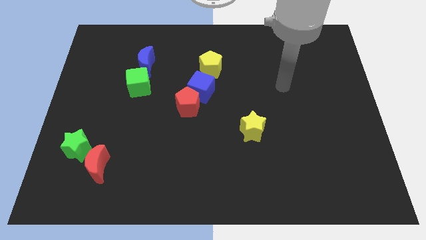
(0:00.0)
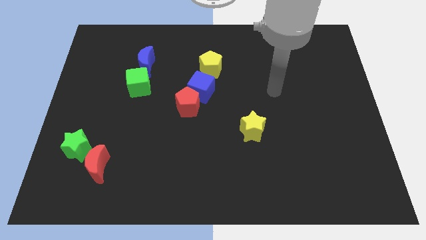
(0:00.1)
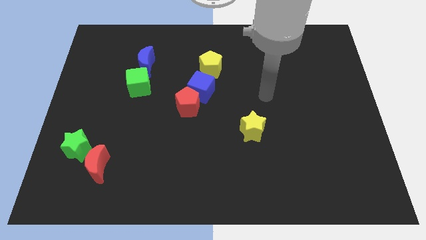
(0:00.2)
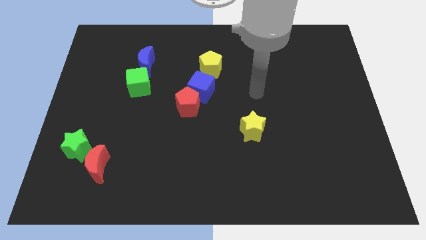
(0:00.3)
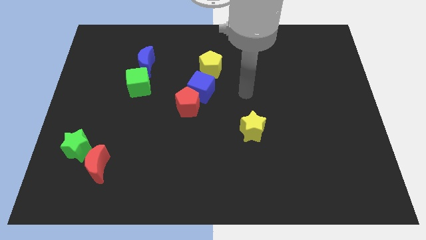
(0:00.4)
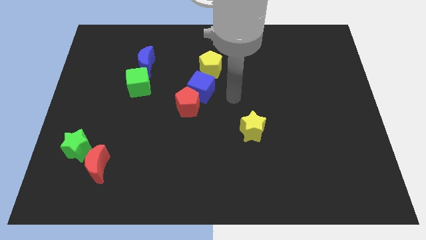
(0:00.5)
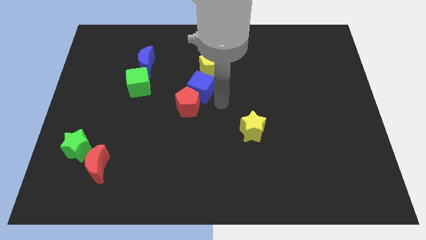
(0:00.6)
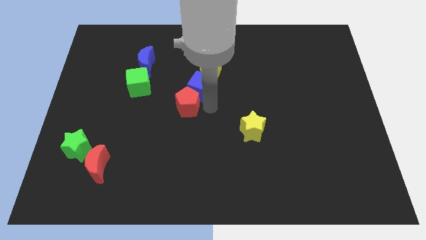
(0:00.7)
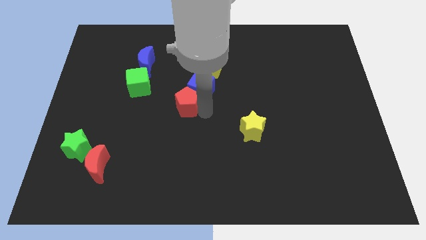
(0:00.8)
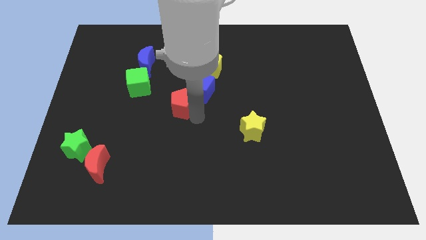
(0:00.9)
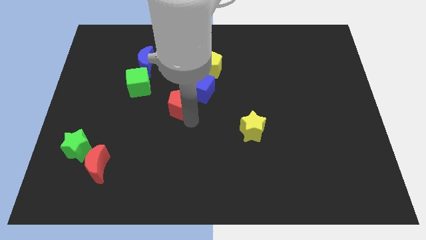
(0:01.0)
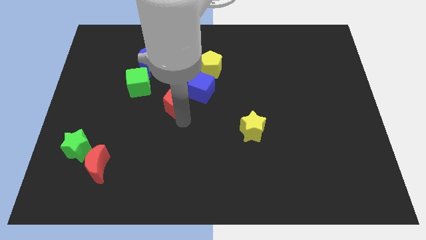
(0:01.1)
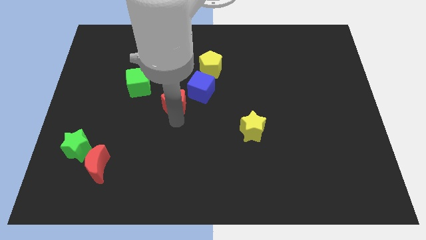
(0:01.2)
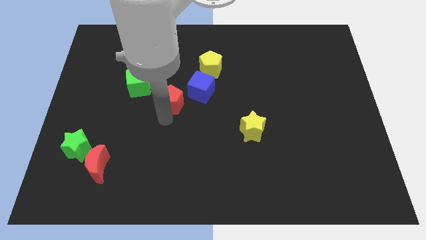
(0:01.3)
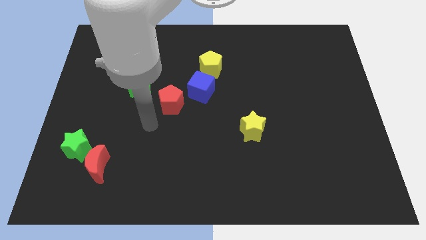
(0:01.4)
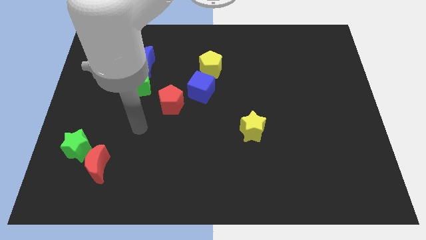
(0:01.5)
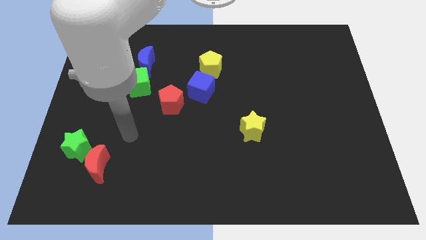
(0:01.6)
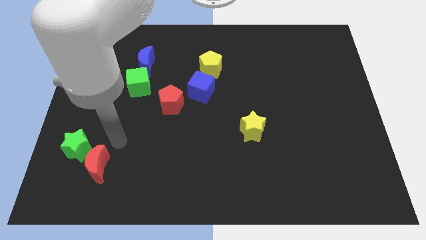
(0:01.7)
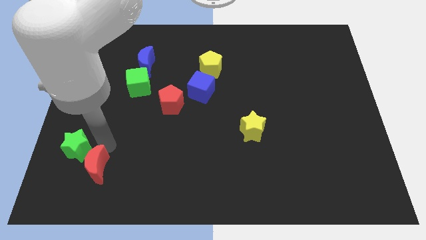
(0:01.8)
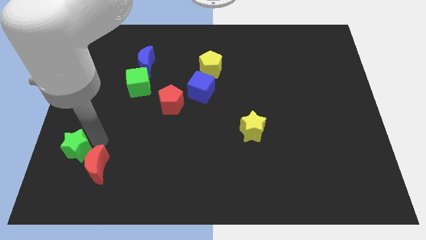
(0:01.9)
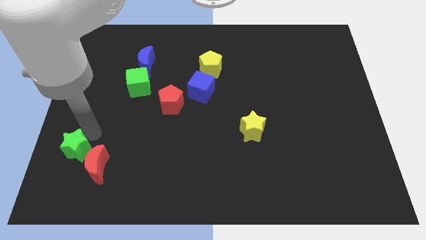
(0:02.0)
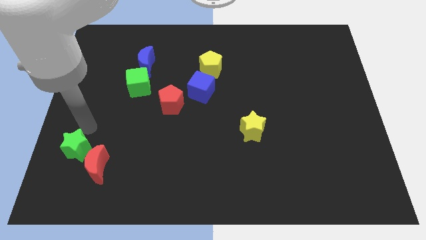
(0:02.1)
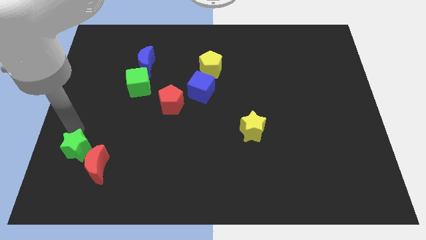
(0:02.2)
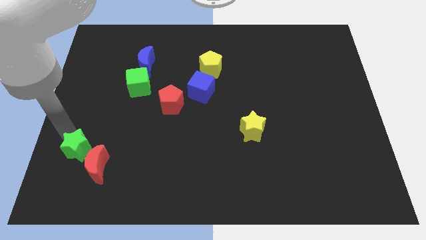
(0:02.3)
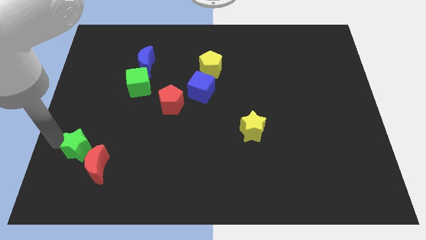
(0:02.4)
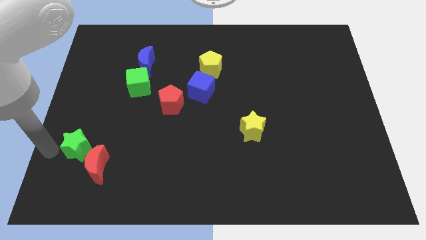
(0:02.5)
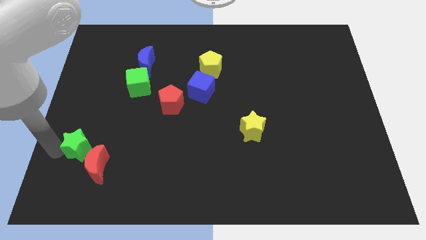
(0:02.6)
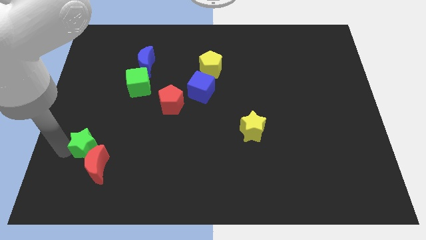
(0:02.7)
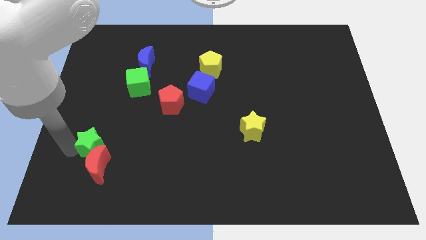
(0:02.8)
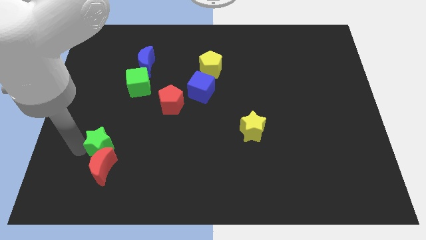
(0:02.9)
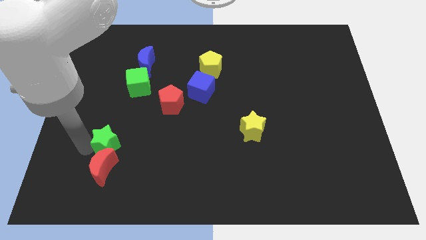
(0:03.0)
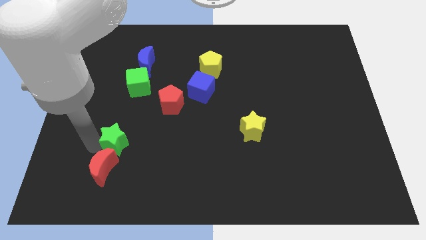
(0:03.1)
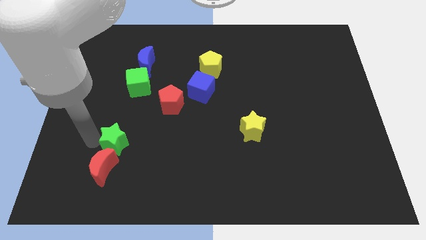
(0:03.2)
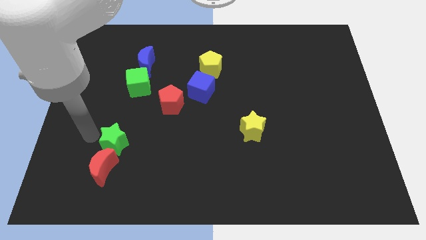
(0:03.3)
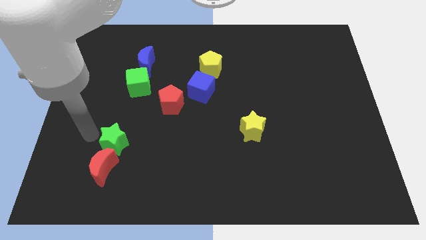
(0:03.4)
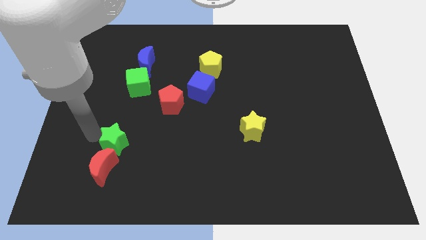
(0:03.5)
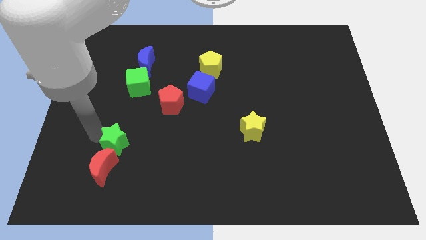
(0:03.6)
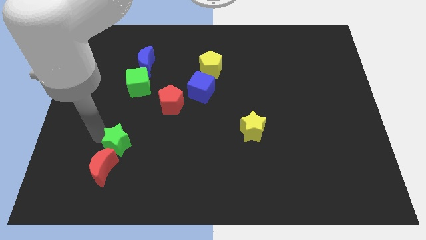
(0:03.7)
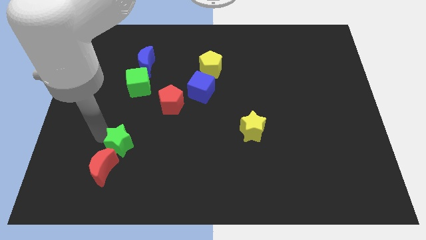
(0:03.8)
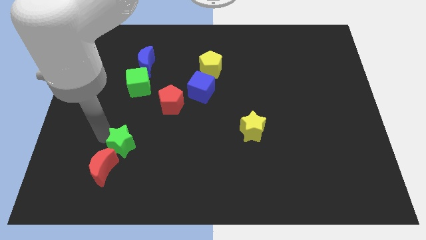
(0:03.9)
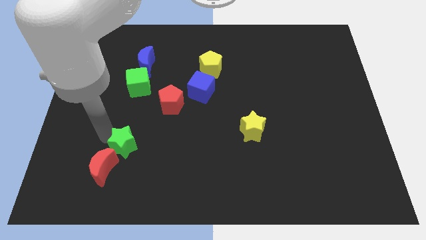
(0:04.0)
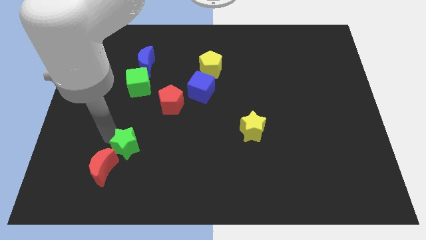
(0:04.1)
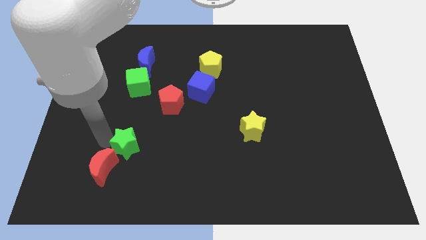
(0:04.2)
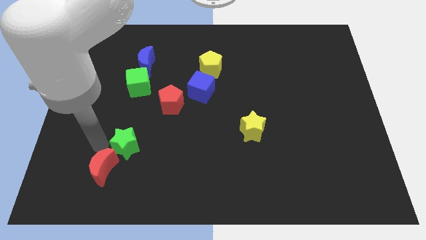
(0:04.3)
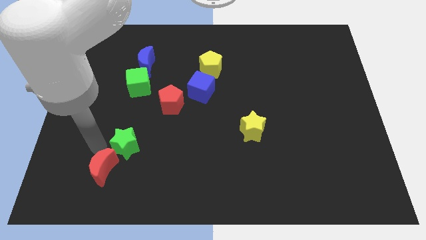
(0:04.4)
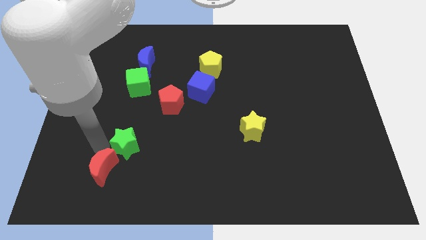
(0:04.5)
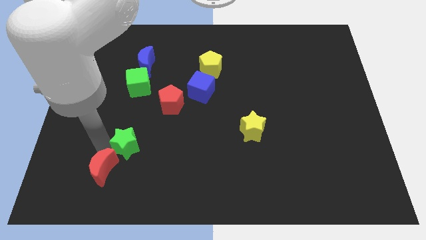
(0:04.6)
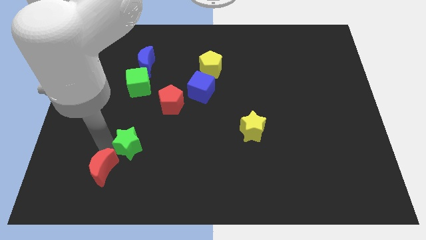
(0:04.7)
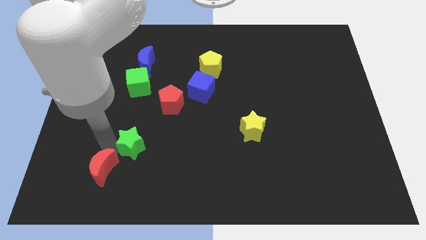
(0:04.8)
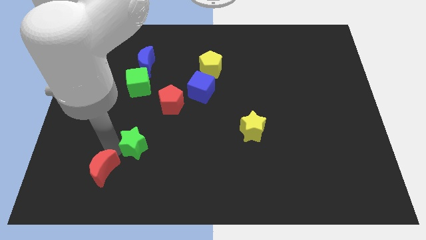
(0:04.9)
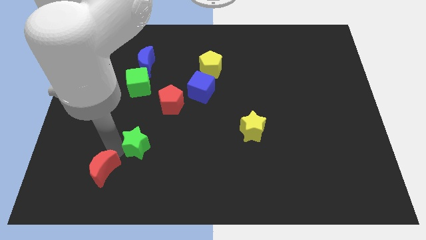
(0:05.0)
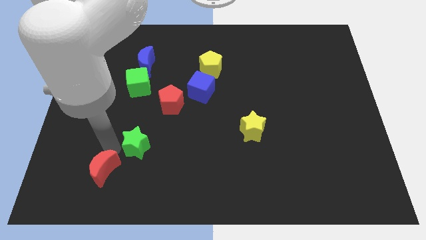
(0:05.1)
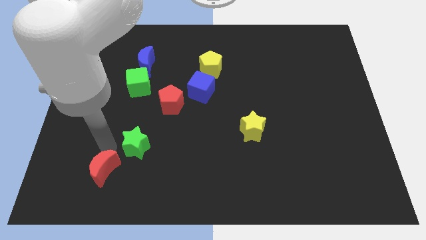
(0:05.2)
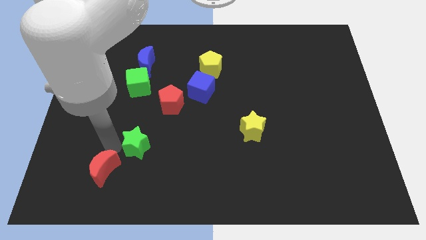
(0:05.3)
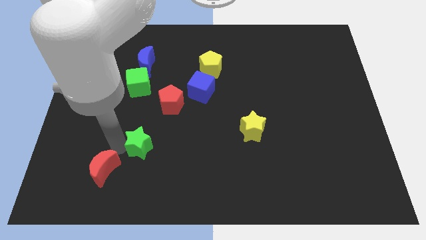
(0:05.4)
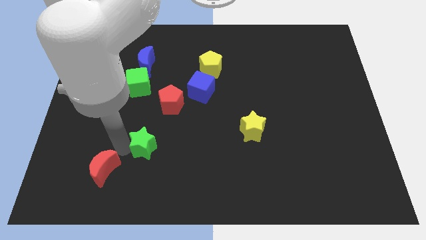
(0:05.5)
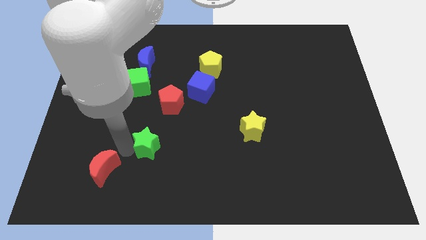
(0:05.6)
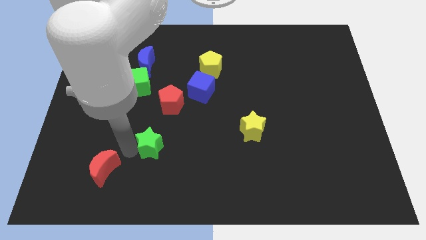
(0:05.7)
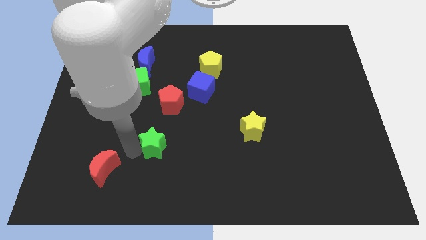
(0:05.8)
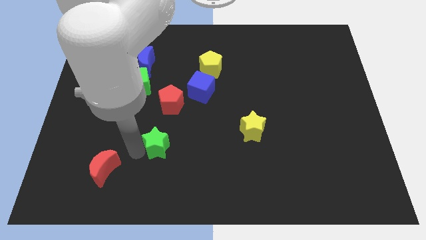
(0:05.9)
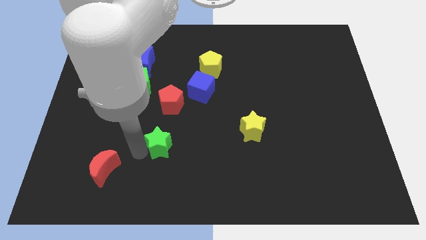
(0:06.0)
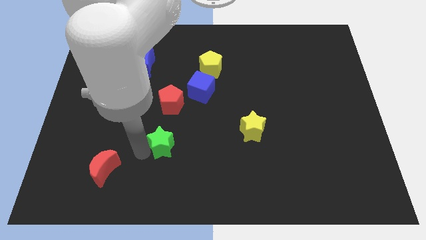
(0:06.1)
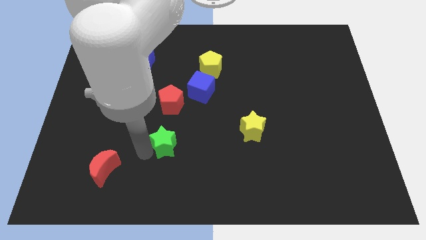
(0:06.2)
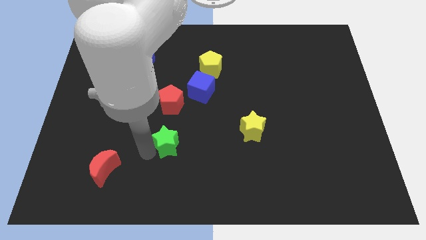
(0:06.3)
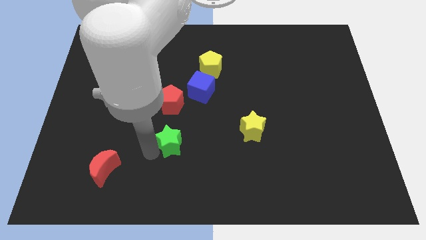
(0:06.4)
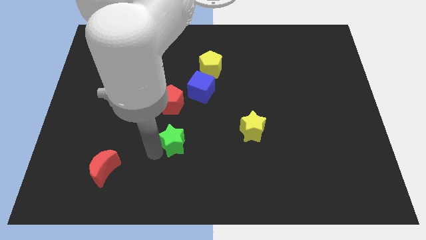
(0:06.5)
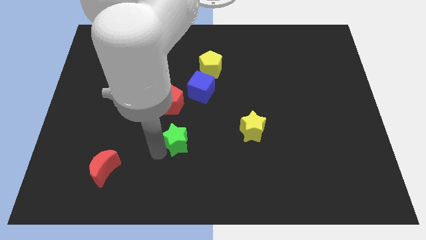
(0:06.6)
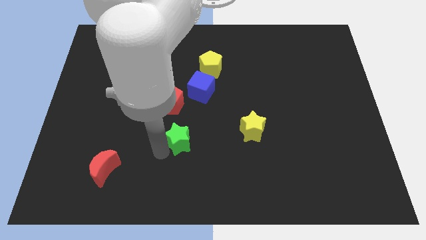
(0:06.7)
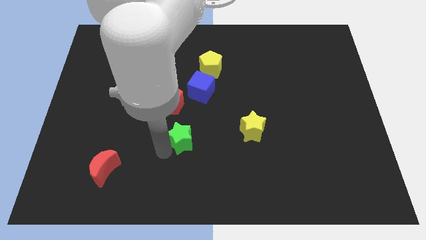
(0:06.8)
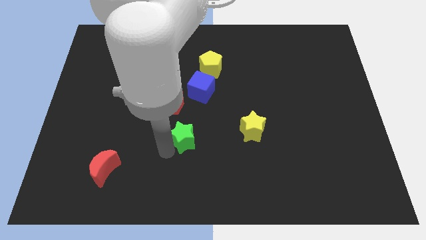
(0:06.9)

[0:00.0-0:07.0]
move the green star to the center
